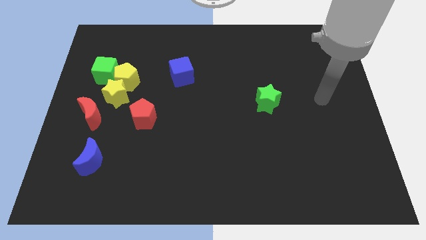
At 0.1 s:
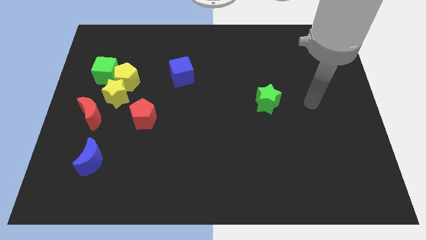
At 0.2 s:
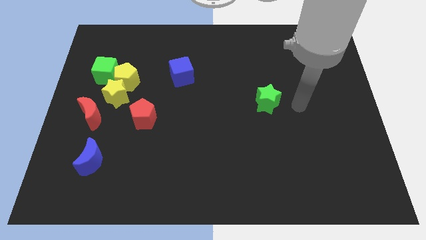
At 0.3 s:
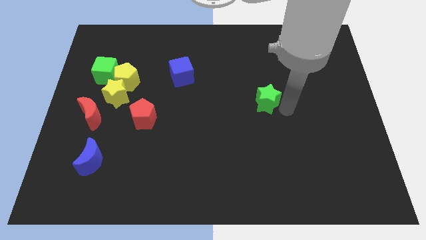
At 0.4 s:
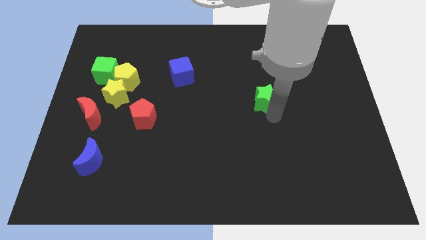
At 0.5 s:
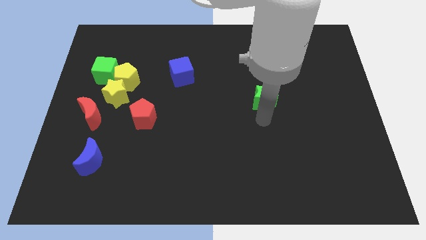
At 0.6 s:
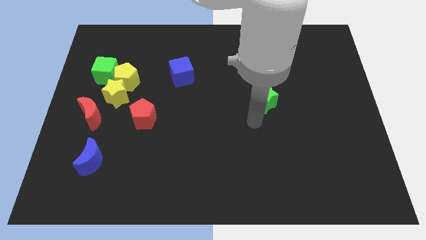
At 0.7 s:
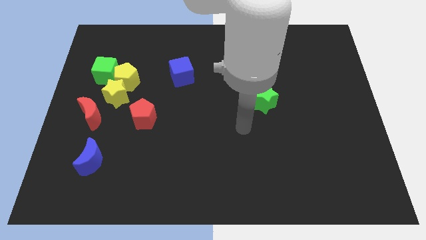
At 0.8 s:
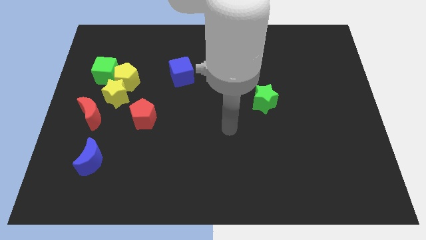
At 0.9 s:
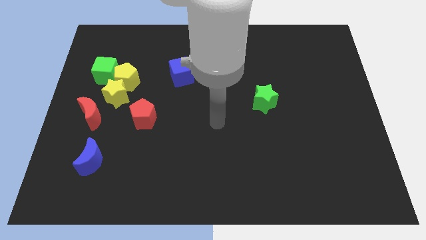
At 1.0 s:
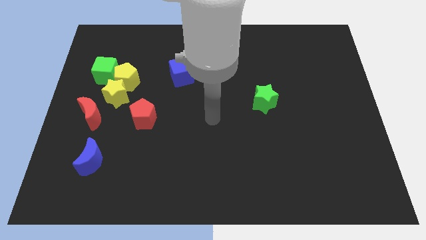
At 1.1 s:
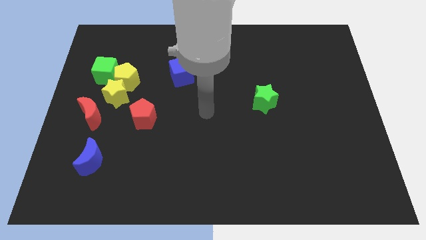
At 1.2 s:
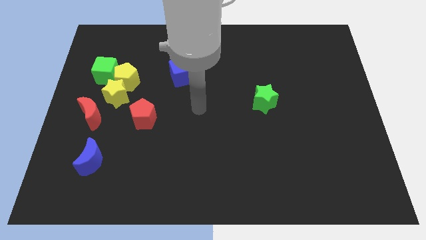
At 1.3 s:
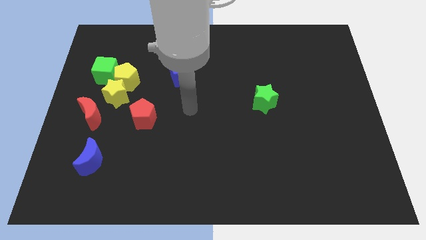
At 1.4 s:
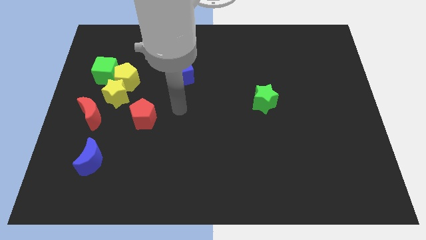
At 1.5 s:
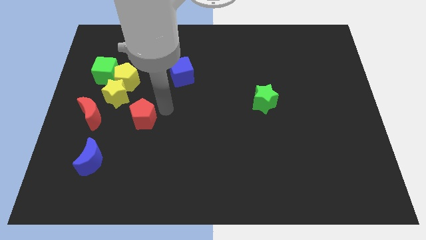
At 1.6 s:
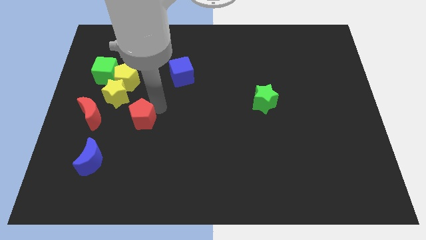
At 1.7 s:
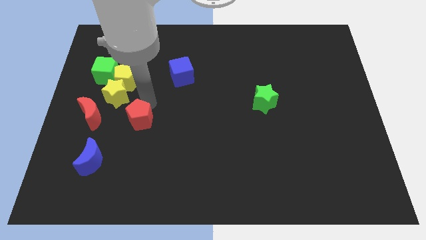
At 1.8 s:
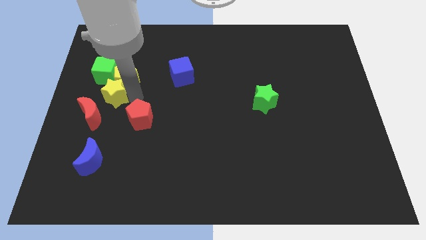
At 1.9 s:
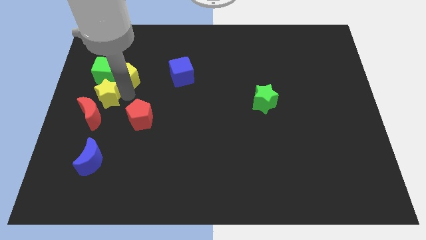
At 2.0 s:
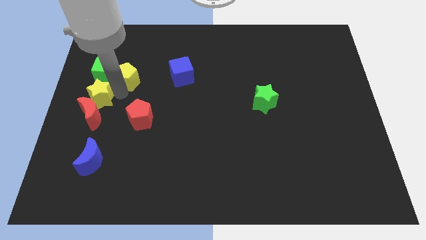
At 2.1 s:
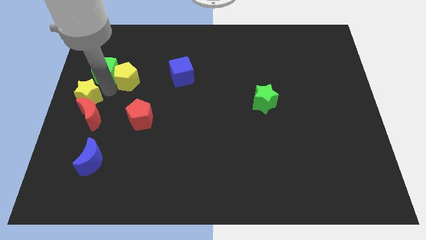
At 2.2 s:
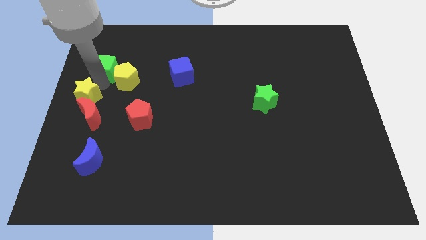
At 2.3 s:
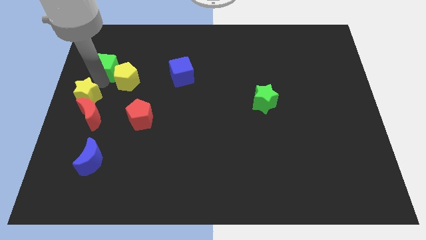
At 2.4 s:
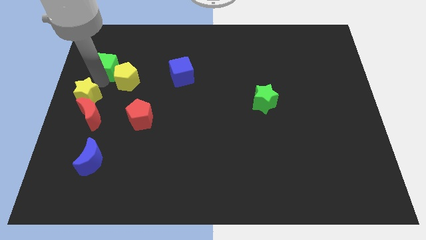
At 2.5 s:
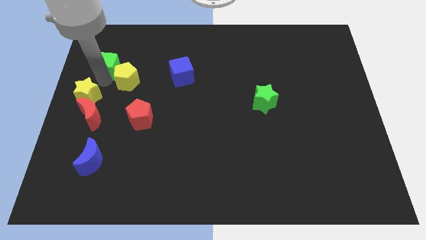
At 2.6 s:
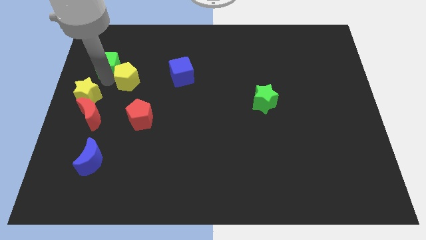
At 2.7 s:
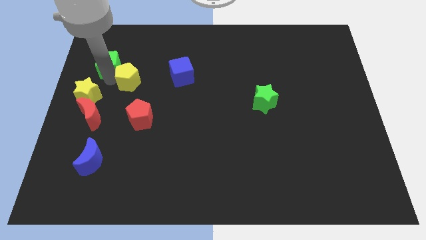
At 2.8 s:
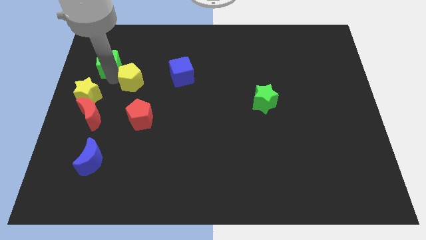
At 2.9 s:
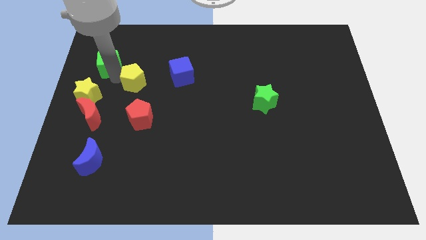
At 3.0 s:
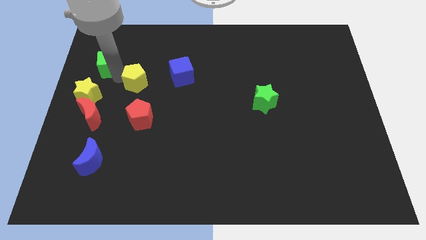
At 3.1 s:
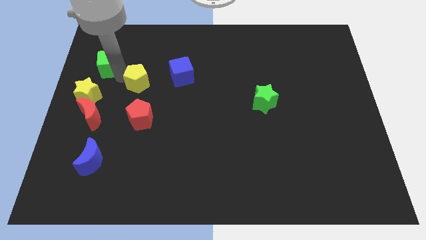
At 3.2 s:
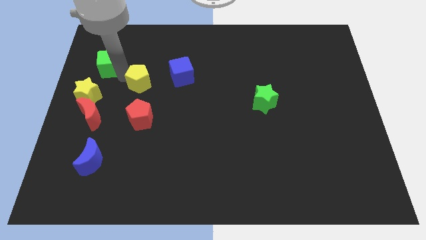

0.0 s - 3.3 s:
move the yellow pentagon away from the yellow star and green cube

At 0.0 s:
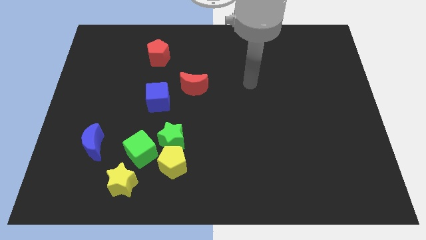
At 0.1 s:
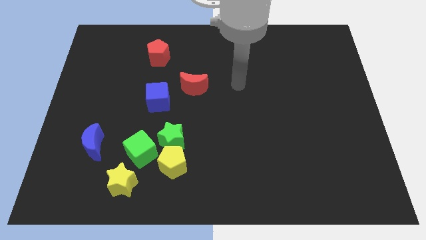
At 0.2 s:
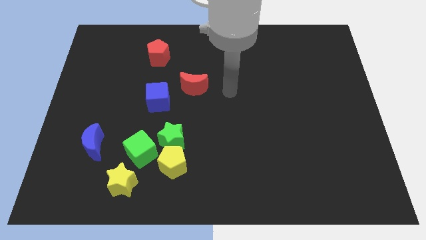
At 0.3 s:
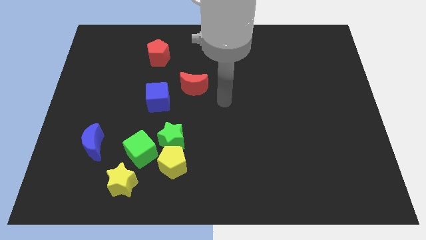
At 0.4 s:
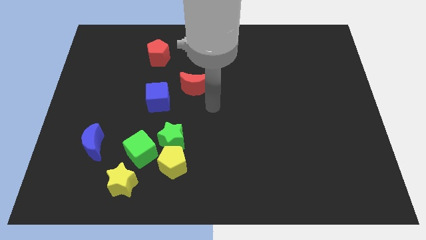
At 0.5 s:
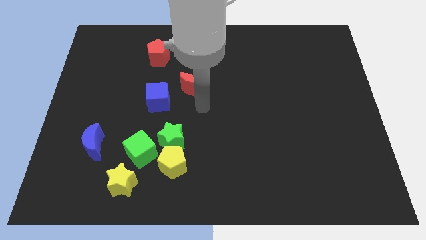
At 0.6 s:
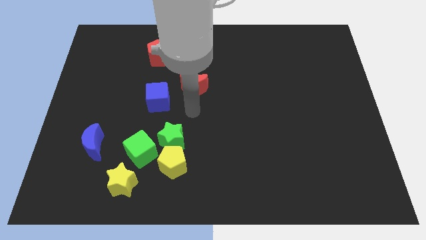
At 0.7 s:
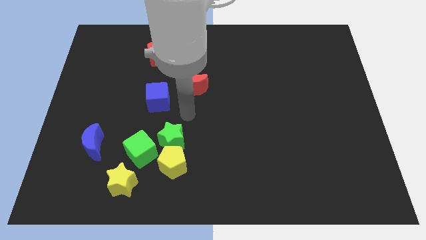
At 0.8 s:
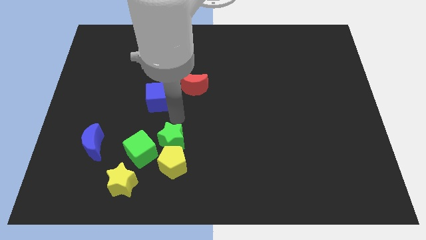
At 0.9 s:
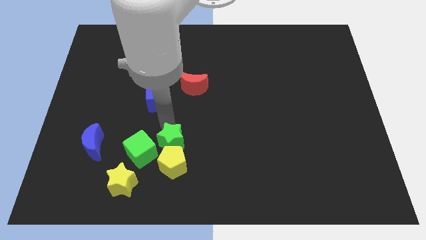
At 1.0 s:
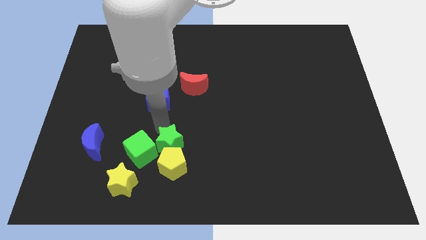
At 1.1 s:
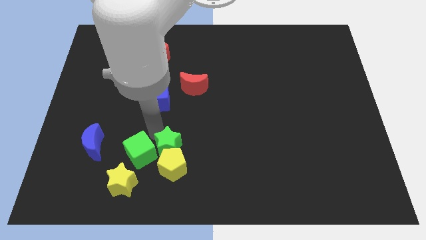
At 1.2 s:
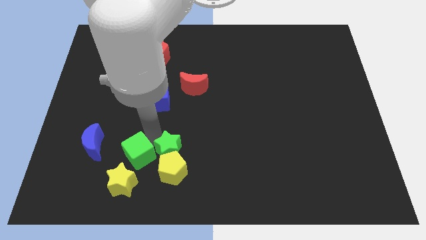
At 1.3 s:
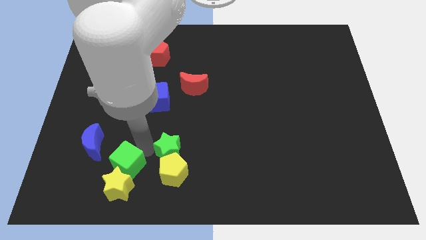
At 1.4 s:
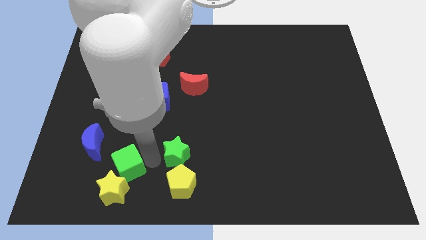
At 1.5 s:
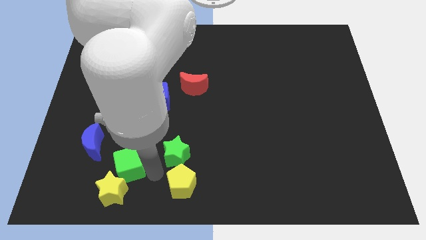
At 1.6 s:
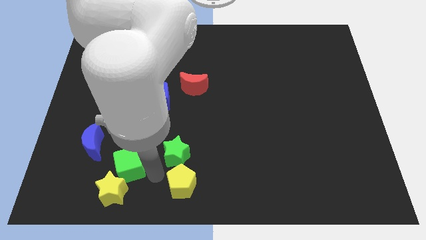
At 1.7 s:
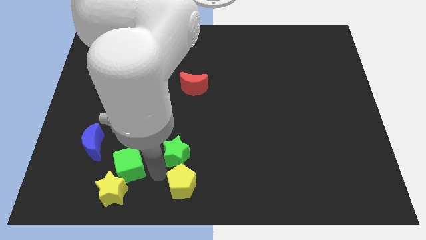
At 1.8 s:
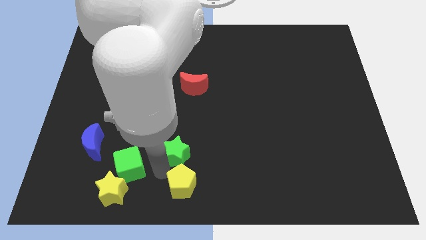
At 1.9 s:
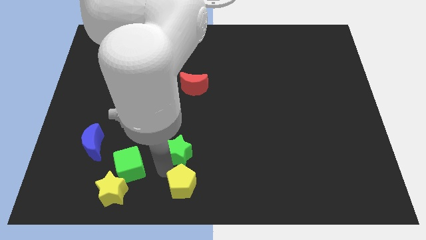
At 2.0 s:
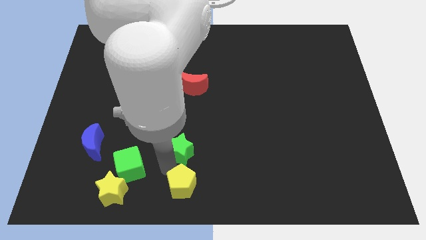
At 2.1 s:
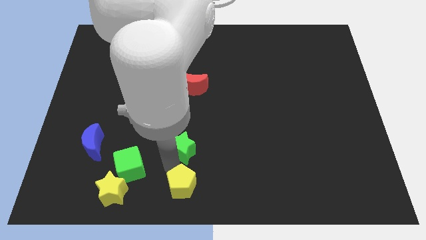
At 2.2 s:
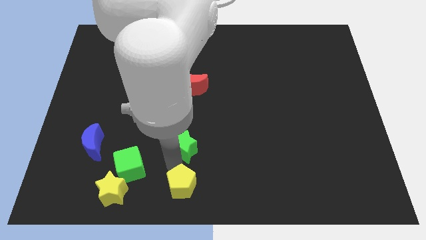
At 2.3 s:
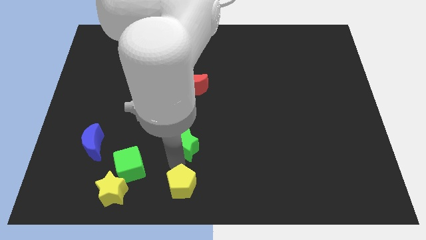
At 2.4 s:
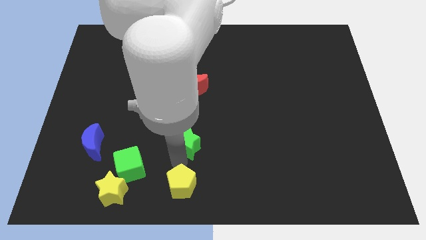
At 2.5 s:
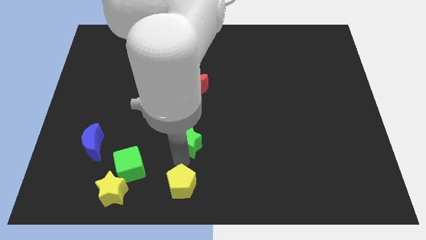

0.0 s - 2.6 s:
separate the green star from the yellow pentagon and green cube

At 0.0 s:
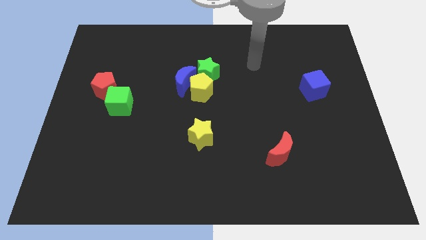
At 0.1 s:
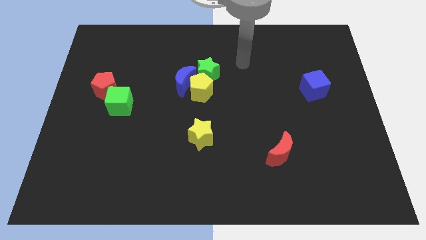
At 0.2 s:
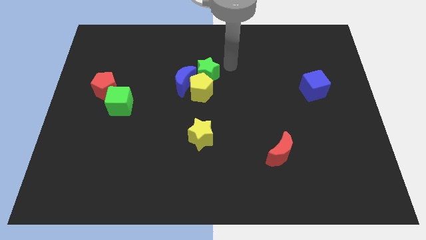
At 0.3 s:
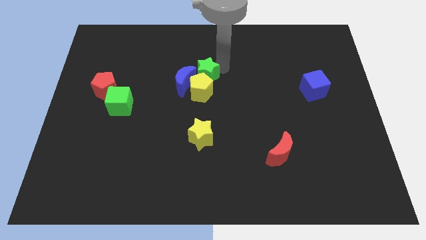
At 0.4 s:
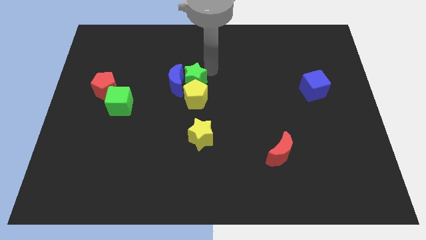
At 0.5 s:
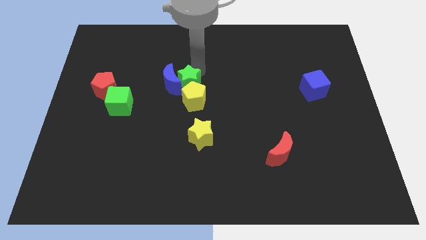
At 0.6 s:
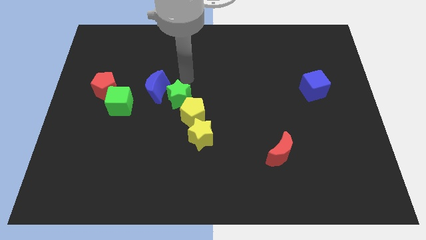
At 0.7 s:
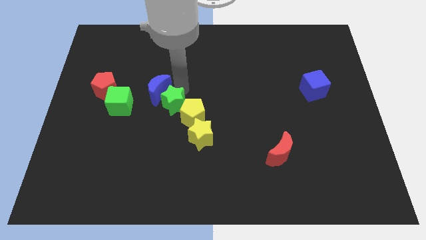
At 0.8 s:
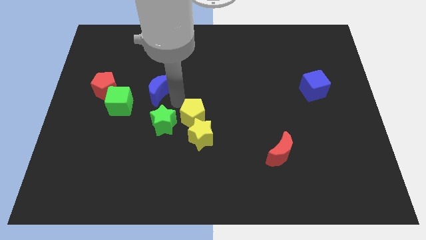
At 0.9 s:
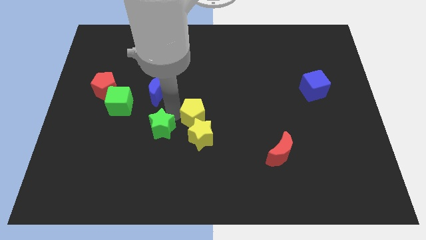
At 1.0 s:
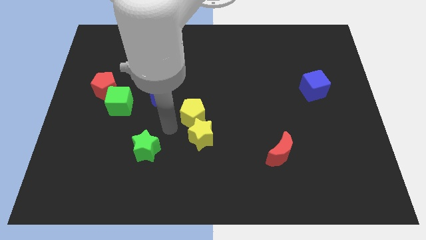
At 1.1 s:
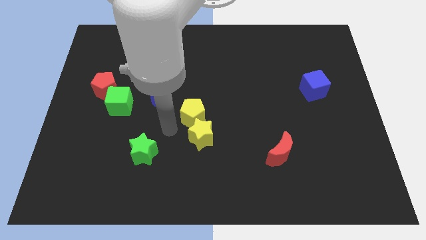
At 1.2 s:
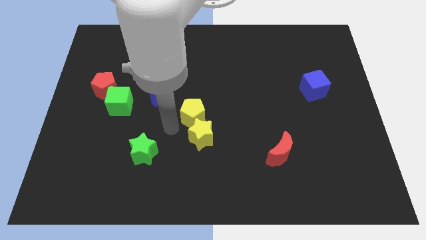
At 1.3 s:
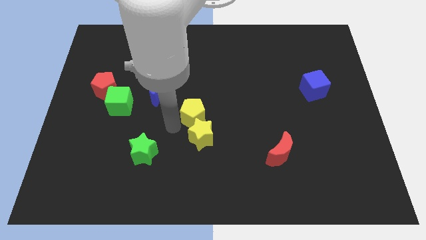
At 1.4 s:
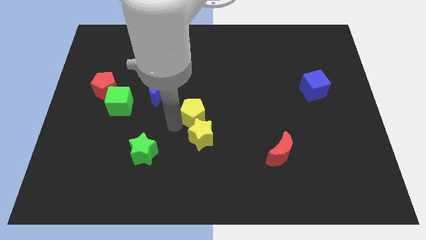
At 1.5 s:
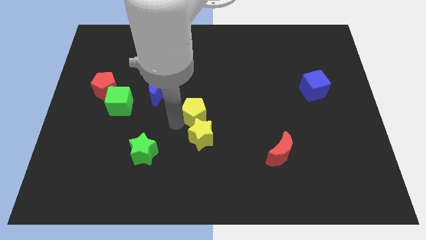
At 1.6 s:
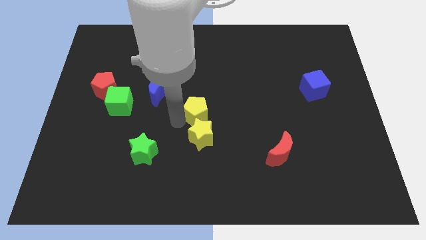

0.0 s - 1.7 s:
separate the yellow pentagon from the blue moon and green star

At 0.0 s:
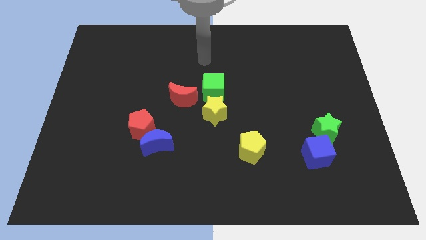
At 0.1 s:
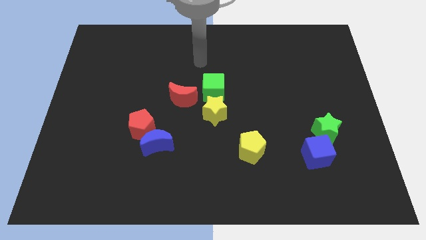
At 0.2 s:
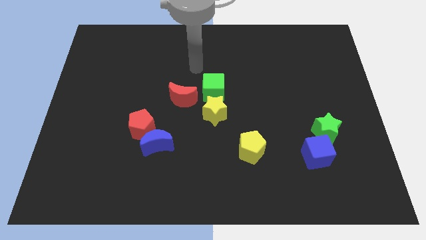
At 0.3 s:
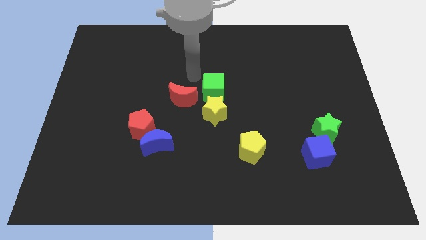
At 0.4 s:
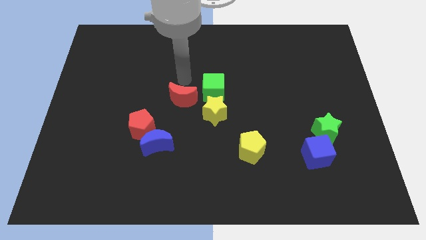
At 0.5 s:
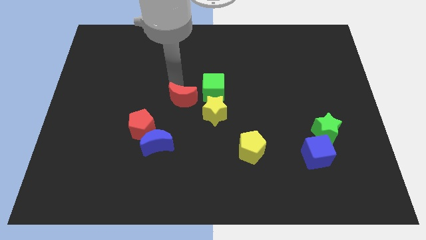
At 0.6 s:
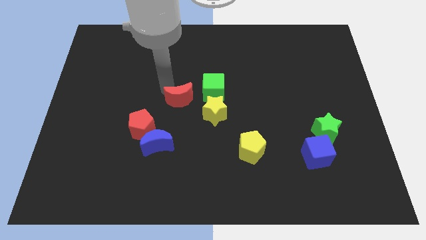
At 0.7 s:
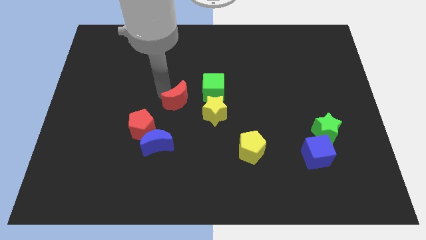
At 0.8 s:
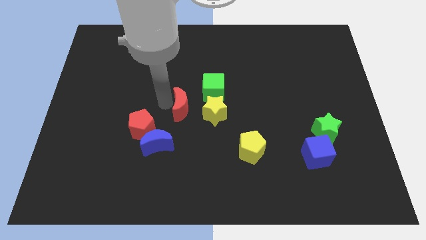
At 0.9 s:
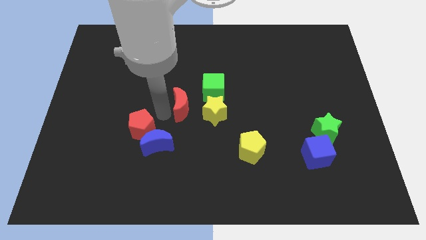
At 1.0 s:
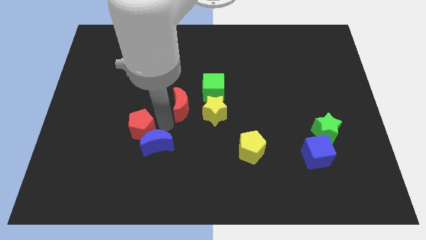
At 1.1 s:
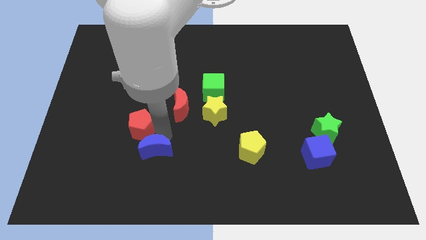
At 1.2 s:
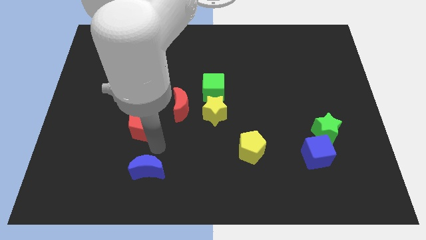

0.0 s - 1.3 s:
pull the red pentagon apart from the blue moon

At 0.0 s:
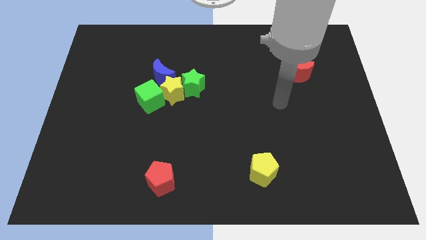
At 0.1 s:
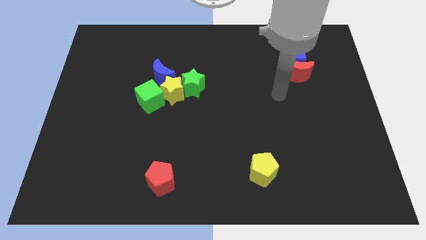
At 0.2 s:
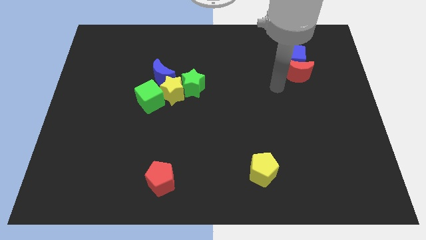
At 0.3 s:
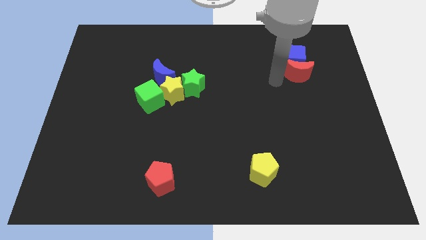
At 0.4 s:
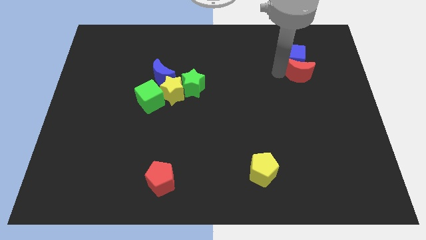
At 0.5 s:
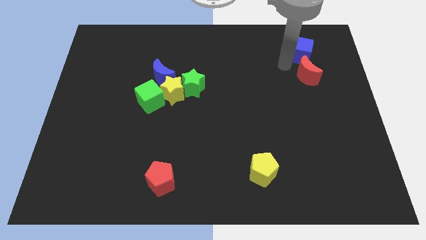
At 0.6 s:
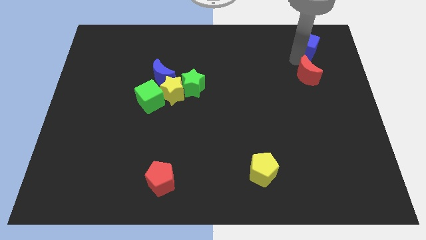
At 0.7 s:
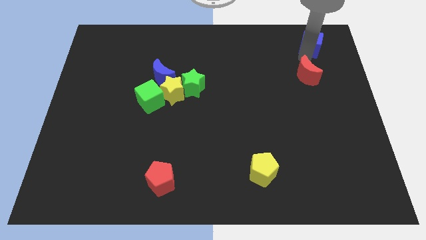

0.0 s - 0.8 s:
pull the red moon apart from the blue cube
